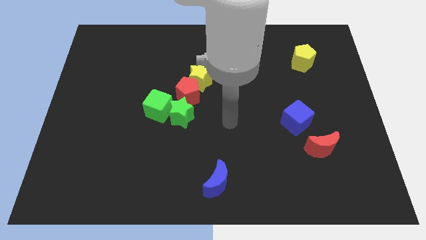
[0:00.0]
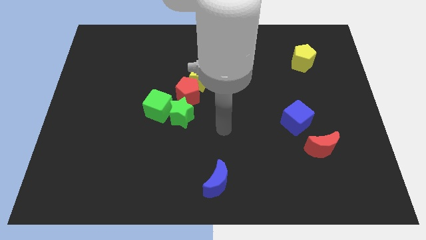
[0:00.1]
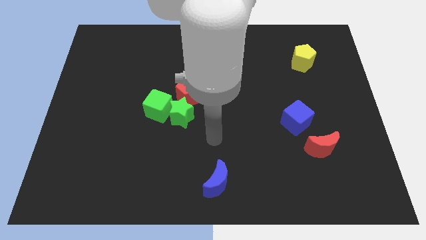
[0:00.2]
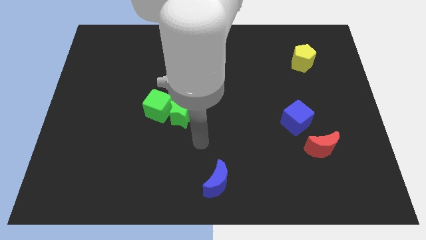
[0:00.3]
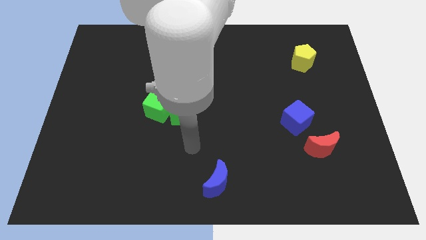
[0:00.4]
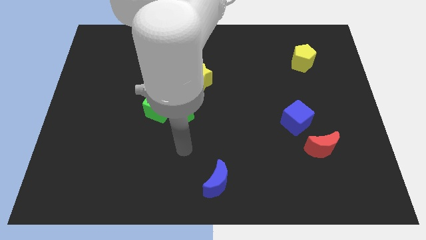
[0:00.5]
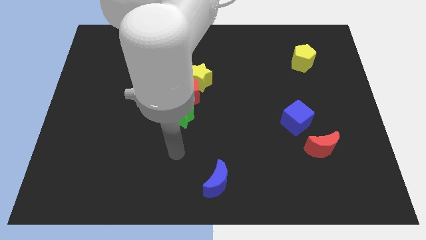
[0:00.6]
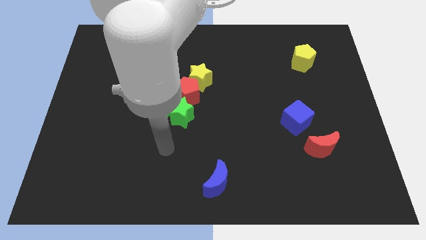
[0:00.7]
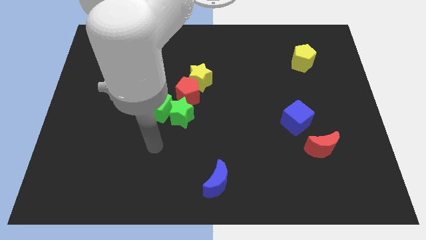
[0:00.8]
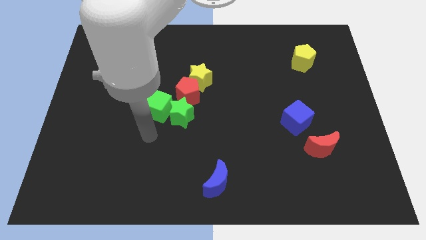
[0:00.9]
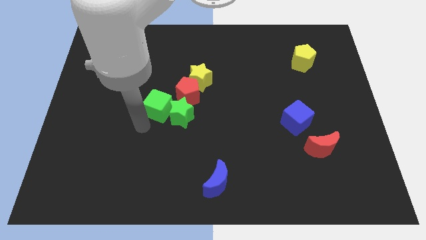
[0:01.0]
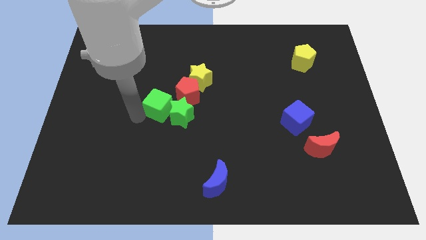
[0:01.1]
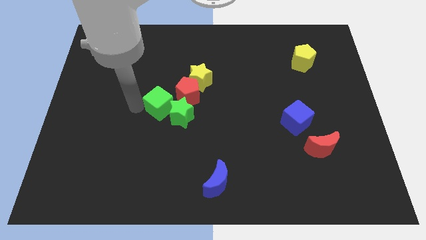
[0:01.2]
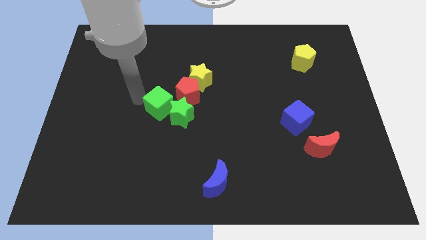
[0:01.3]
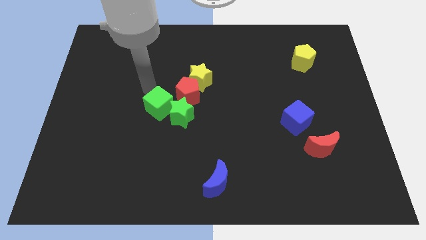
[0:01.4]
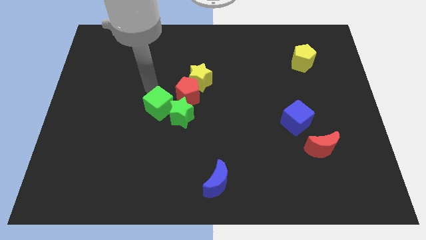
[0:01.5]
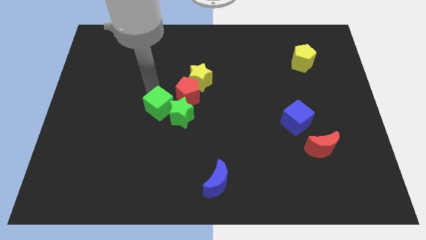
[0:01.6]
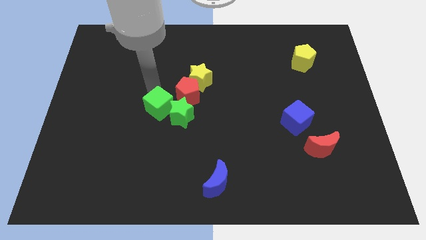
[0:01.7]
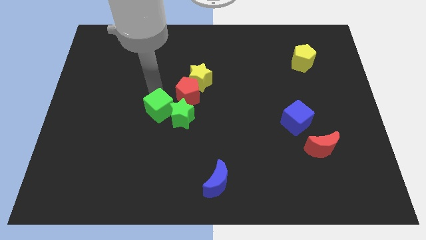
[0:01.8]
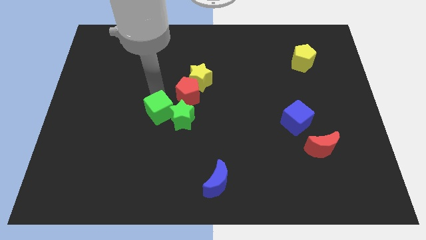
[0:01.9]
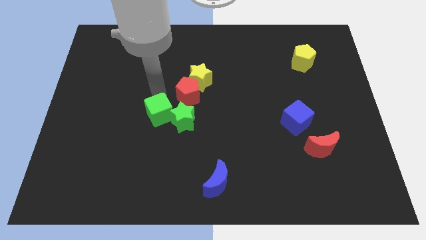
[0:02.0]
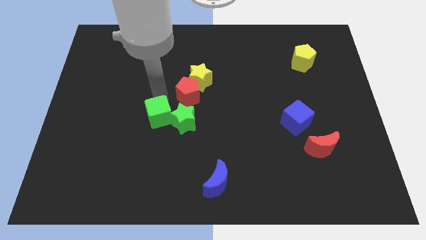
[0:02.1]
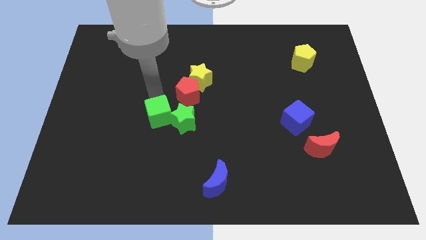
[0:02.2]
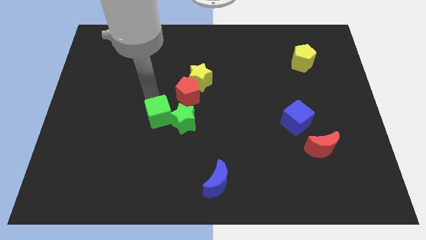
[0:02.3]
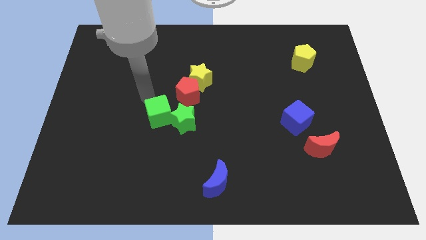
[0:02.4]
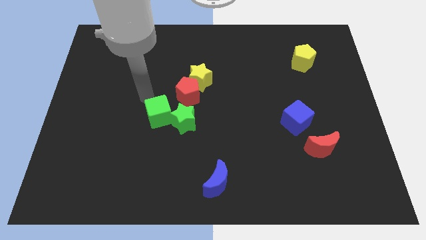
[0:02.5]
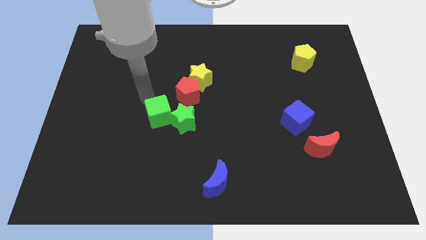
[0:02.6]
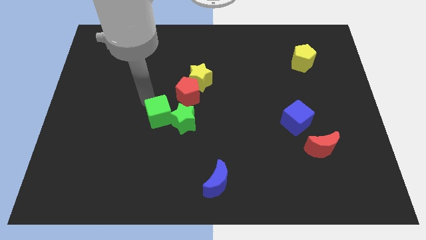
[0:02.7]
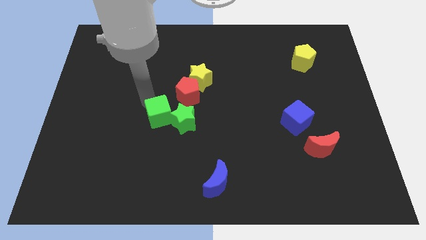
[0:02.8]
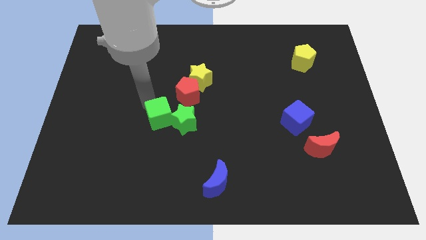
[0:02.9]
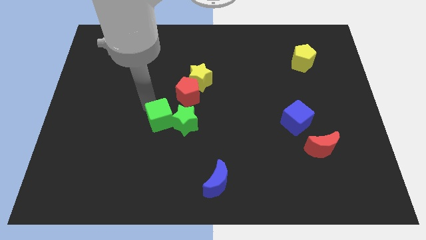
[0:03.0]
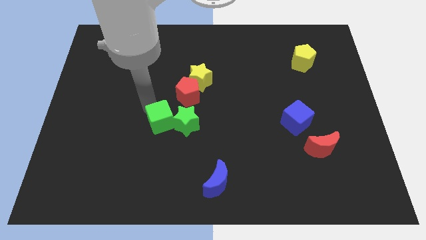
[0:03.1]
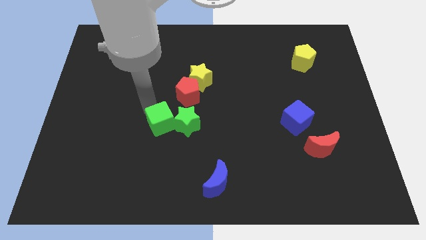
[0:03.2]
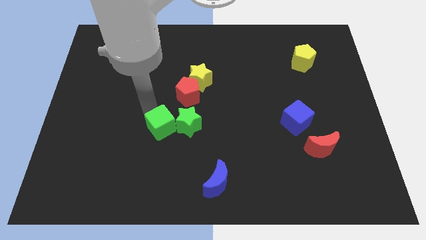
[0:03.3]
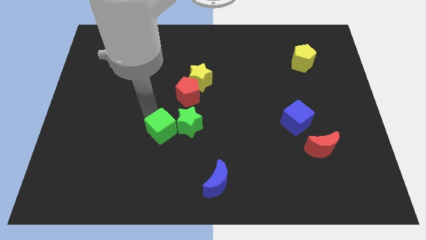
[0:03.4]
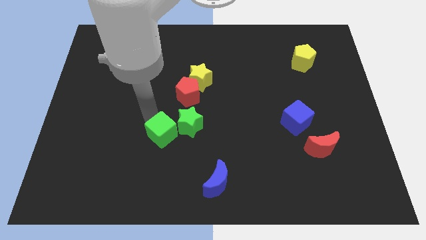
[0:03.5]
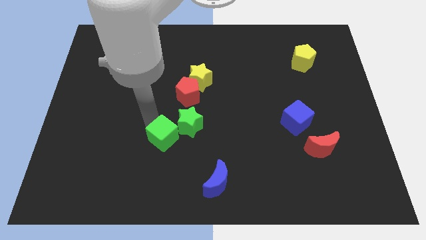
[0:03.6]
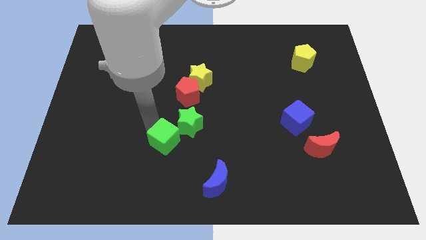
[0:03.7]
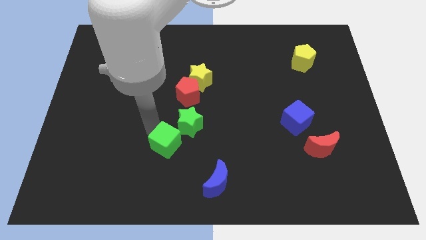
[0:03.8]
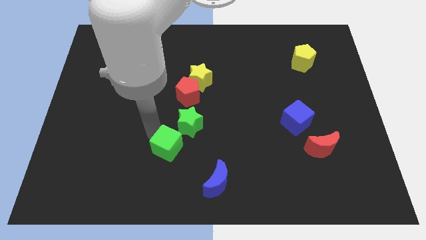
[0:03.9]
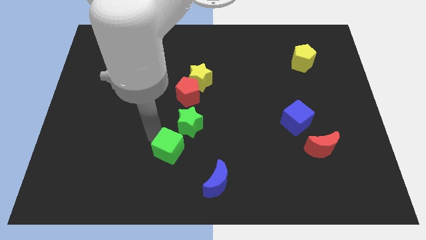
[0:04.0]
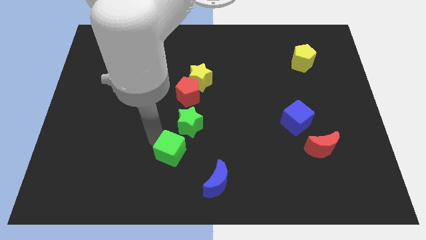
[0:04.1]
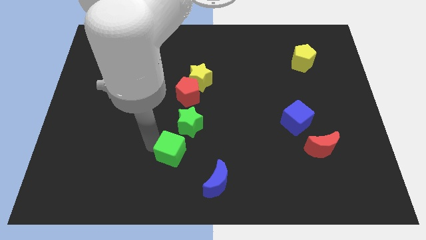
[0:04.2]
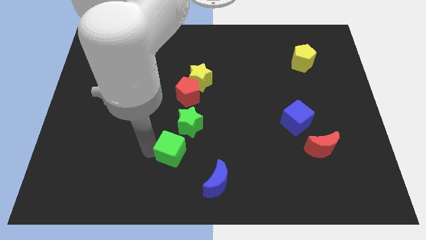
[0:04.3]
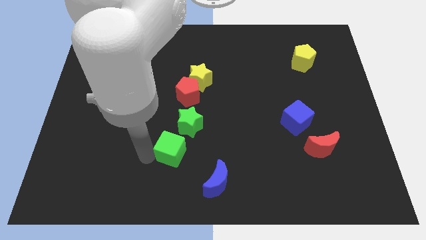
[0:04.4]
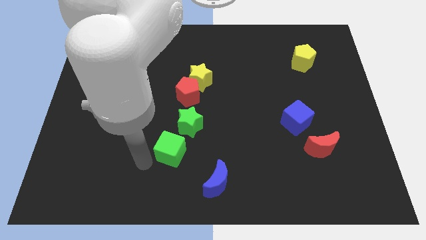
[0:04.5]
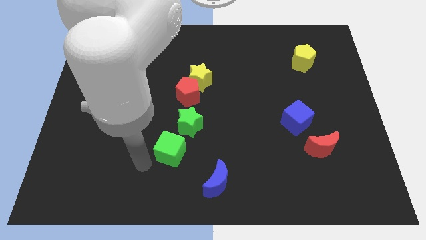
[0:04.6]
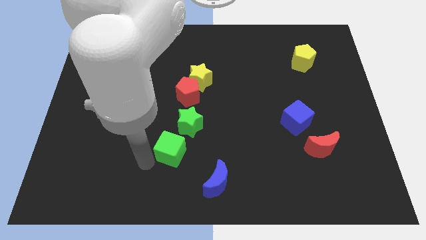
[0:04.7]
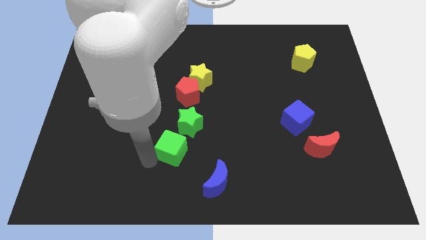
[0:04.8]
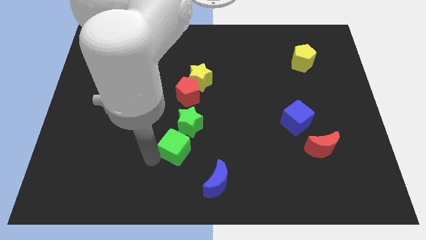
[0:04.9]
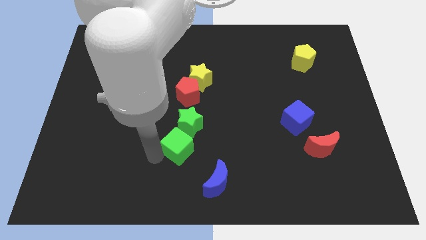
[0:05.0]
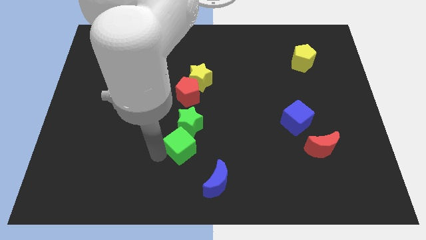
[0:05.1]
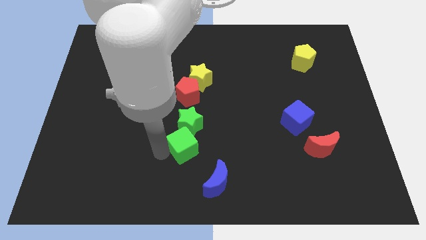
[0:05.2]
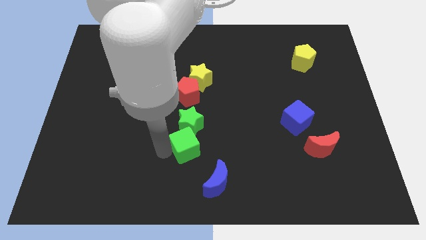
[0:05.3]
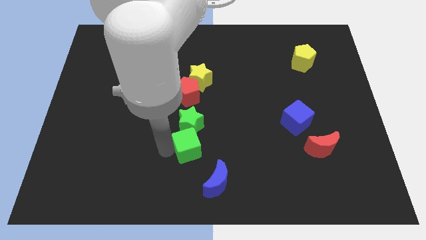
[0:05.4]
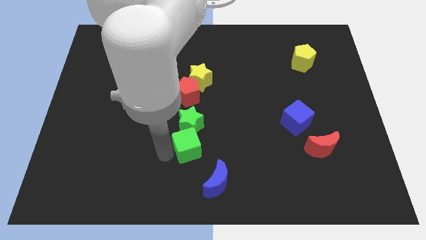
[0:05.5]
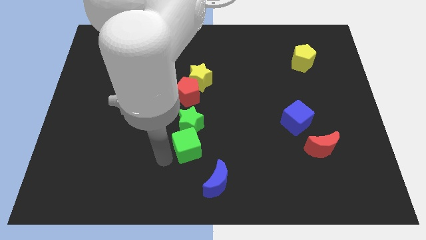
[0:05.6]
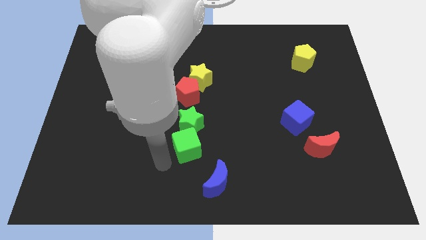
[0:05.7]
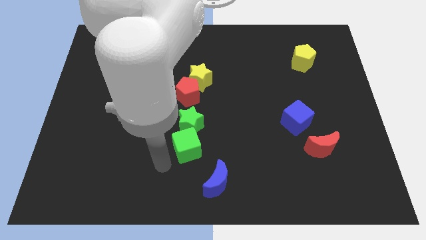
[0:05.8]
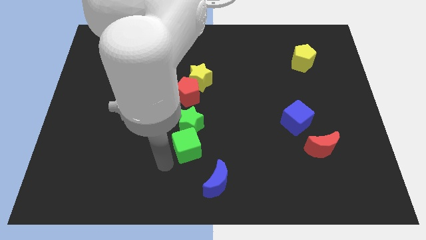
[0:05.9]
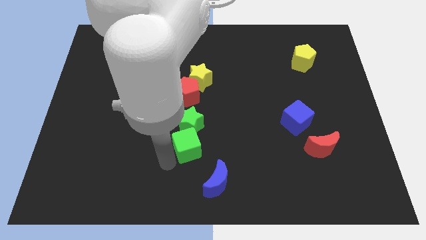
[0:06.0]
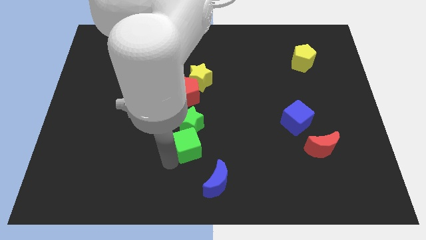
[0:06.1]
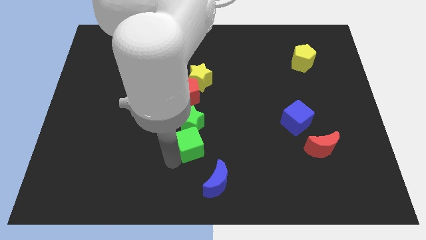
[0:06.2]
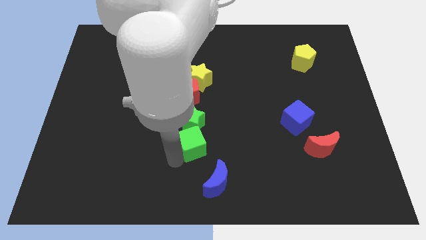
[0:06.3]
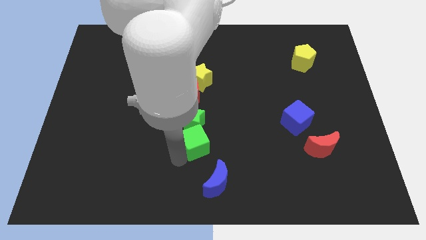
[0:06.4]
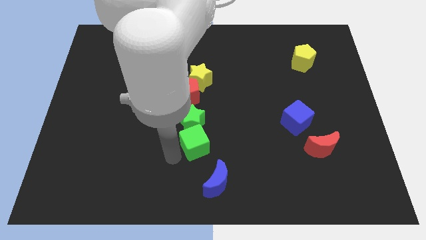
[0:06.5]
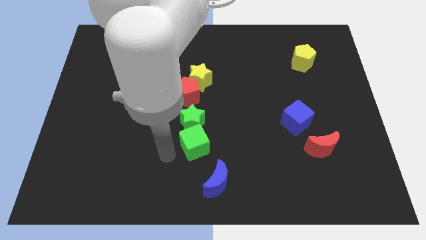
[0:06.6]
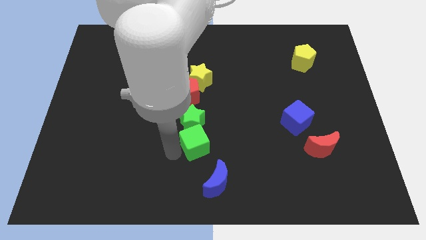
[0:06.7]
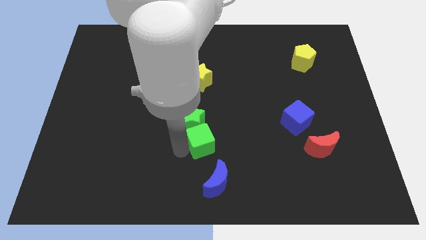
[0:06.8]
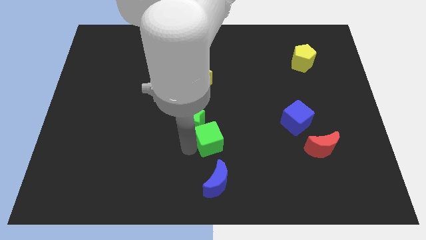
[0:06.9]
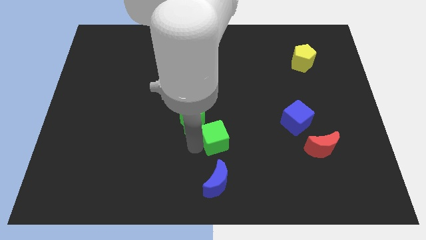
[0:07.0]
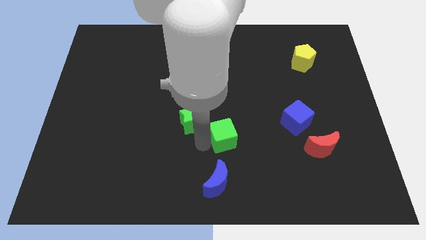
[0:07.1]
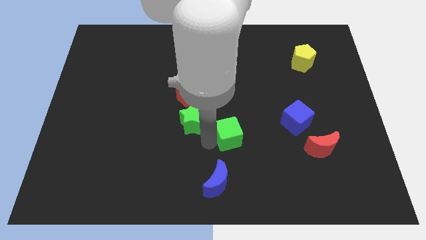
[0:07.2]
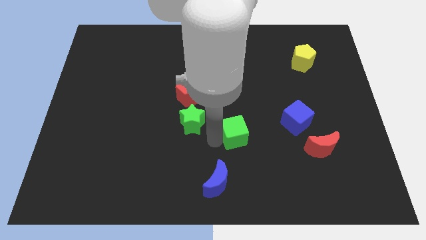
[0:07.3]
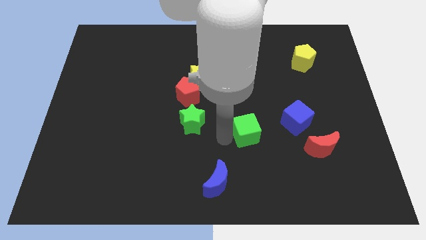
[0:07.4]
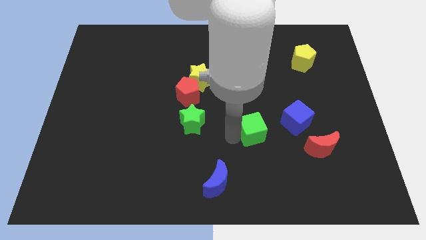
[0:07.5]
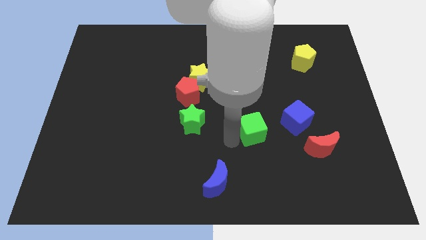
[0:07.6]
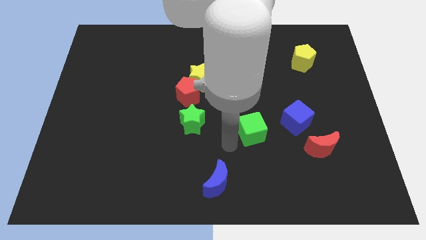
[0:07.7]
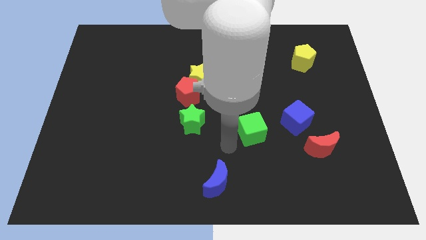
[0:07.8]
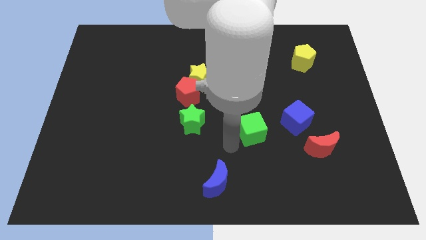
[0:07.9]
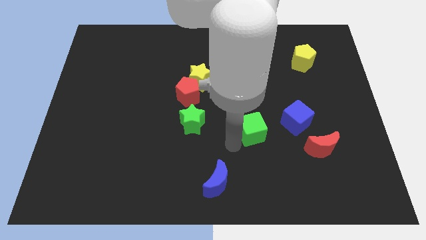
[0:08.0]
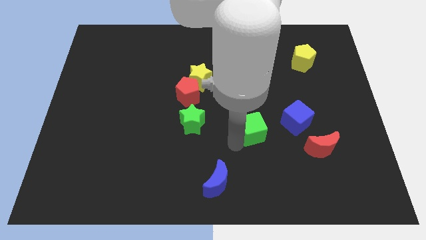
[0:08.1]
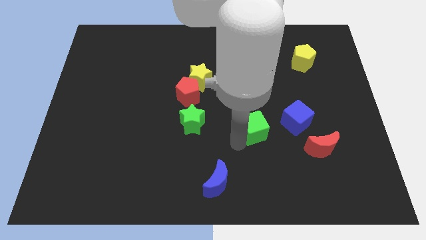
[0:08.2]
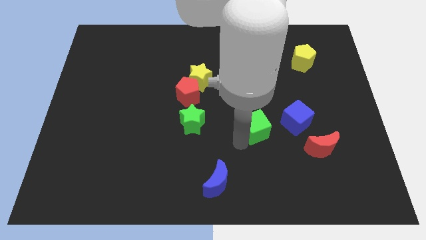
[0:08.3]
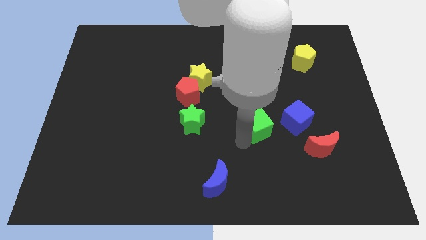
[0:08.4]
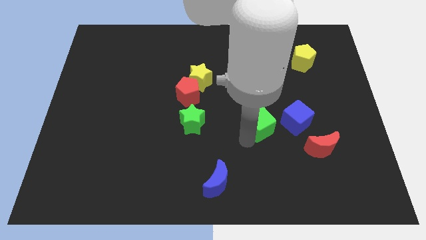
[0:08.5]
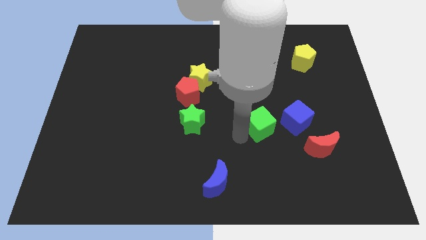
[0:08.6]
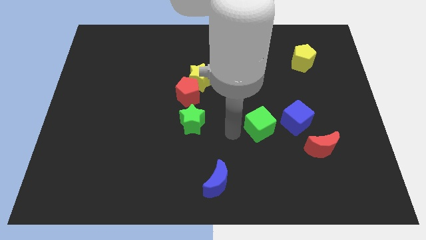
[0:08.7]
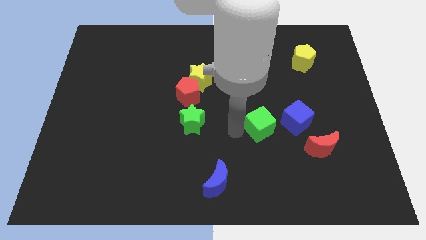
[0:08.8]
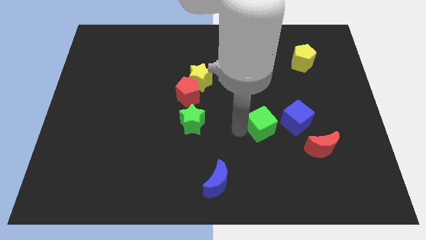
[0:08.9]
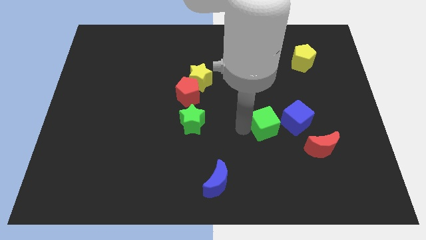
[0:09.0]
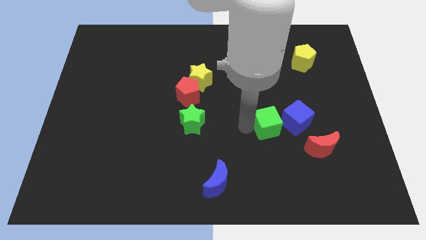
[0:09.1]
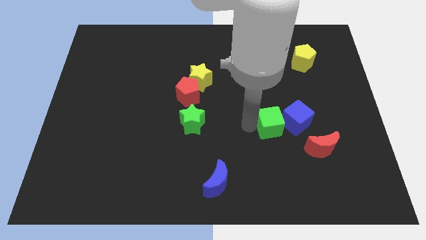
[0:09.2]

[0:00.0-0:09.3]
slide the green cube to the blue cube
